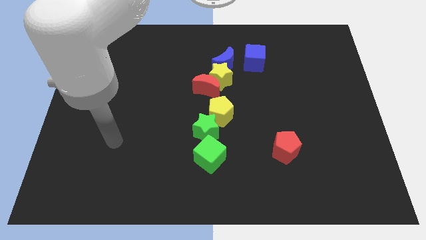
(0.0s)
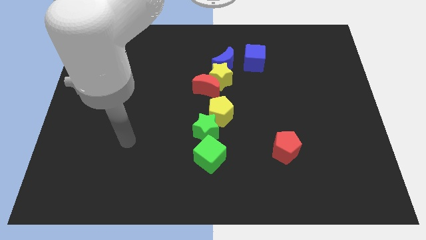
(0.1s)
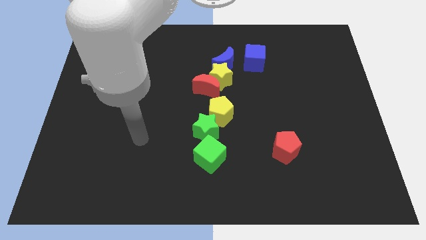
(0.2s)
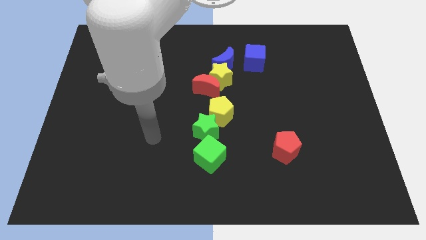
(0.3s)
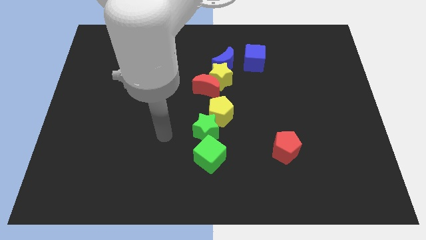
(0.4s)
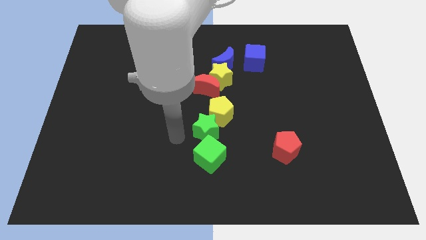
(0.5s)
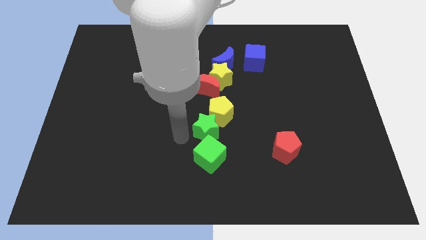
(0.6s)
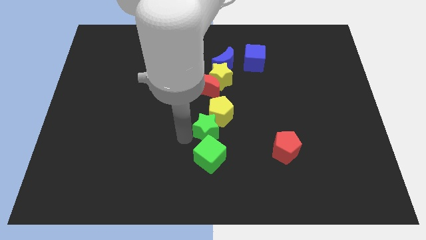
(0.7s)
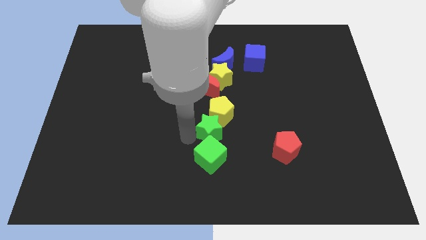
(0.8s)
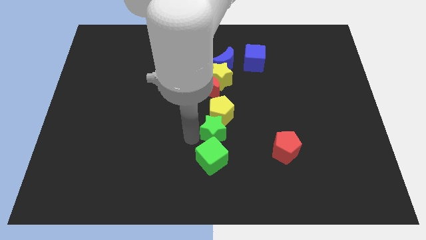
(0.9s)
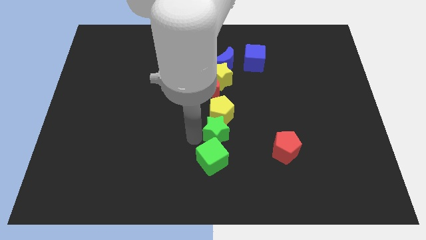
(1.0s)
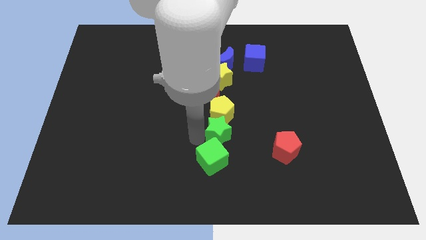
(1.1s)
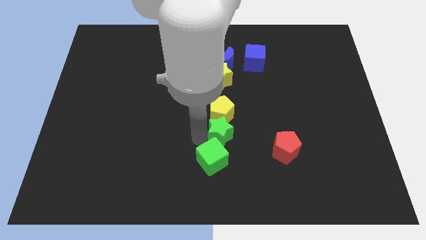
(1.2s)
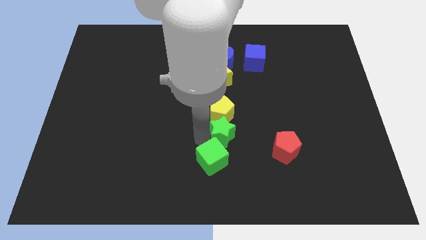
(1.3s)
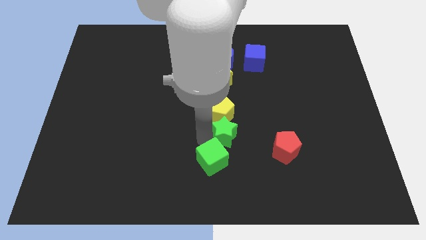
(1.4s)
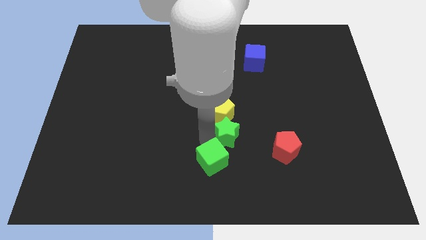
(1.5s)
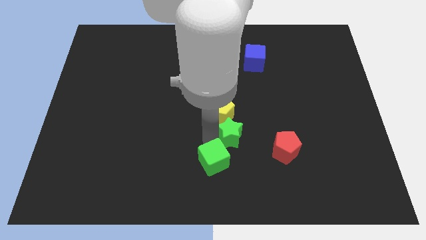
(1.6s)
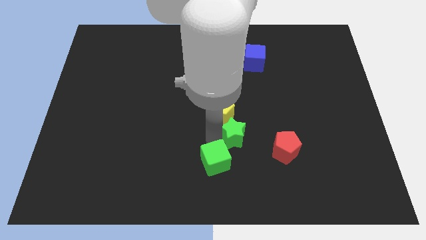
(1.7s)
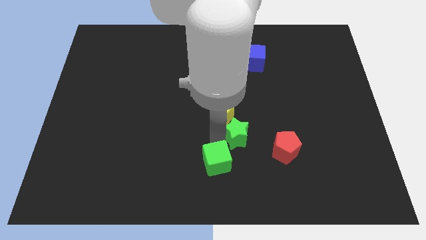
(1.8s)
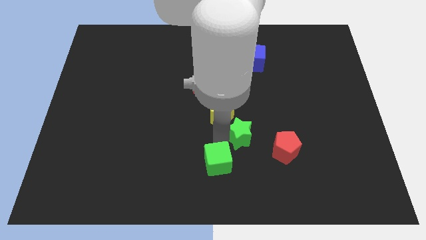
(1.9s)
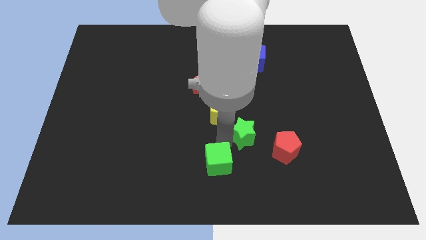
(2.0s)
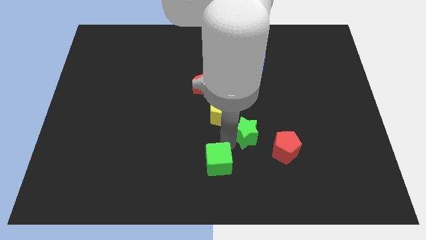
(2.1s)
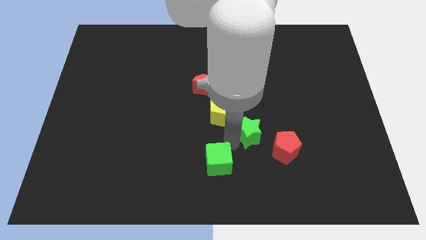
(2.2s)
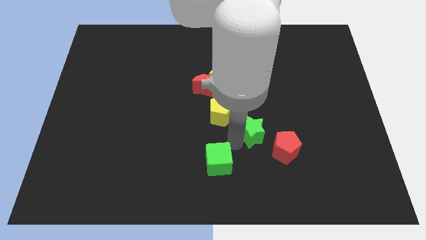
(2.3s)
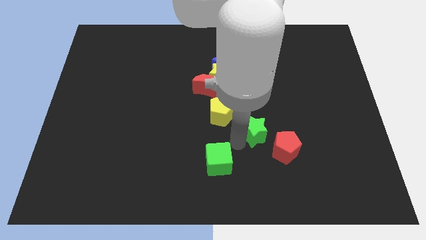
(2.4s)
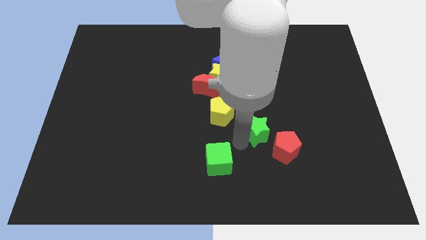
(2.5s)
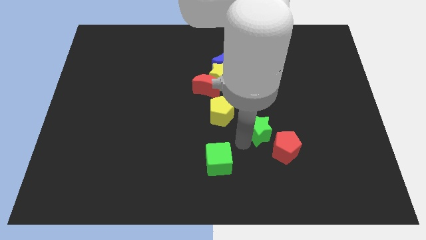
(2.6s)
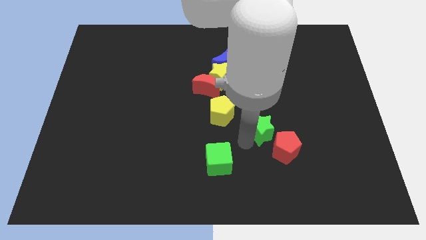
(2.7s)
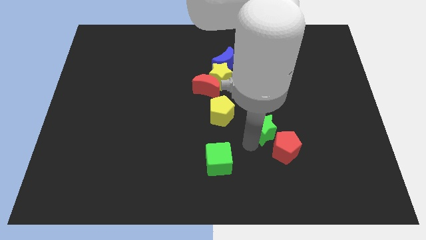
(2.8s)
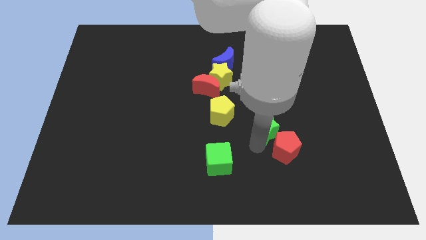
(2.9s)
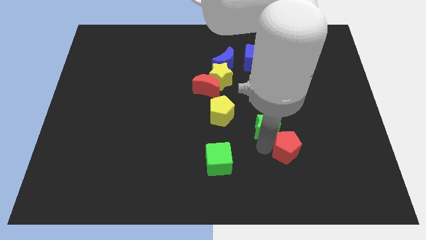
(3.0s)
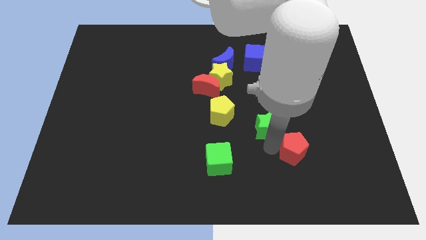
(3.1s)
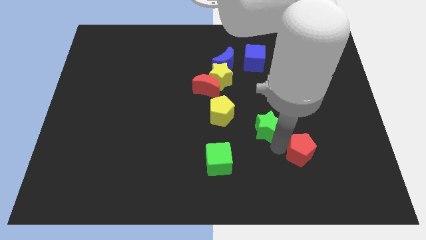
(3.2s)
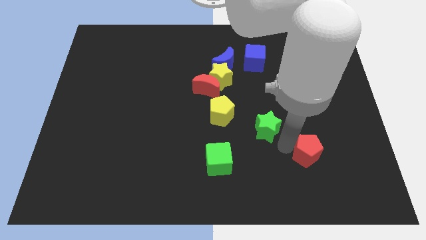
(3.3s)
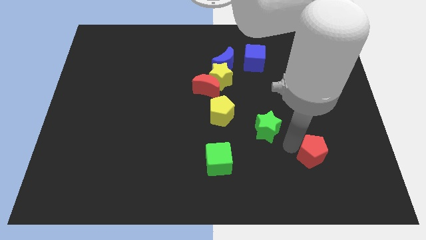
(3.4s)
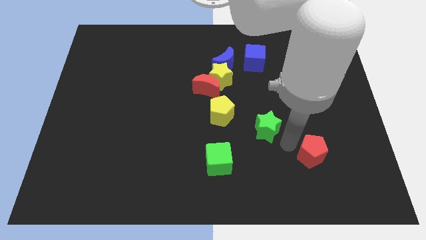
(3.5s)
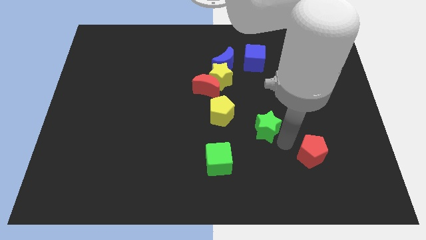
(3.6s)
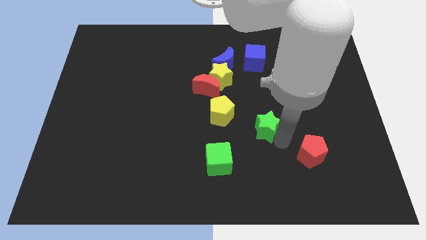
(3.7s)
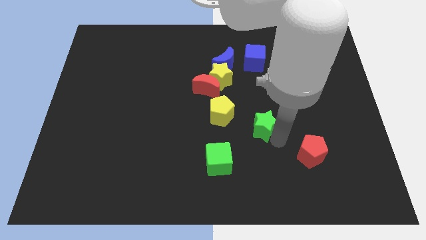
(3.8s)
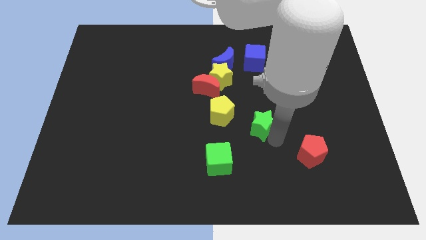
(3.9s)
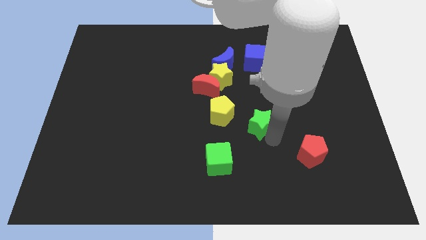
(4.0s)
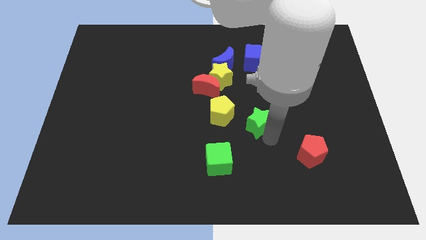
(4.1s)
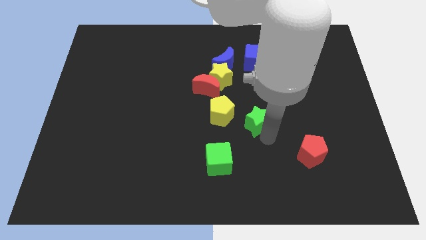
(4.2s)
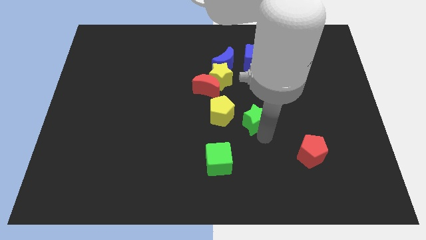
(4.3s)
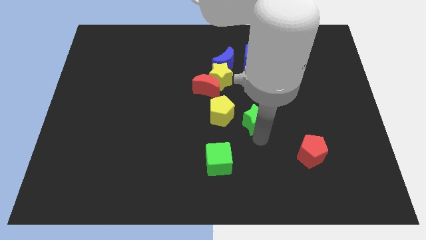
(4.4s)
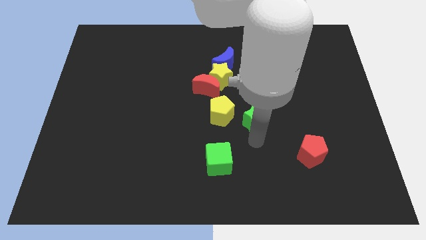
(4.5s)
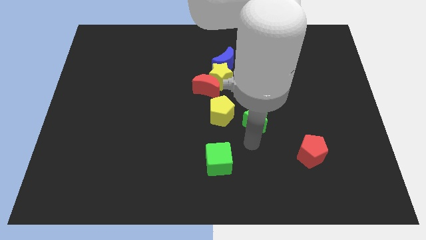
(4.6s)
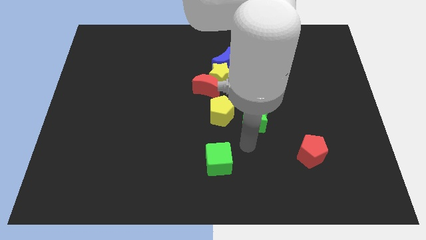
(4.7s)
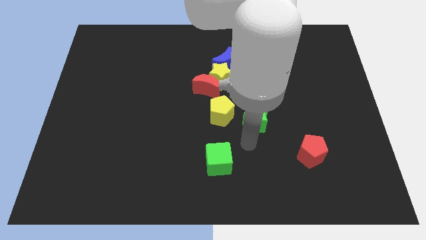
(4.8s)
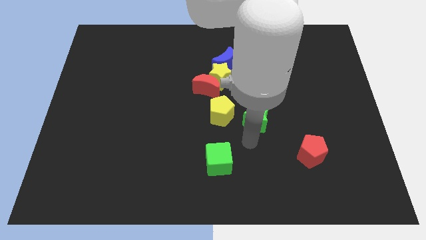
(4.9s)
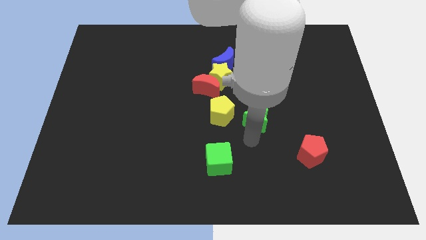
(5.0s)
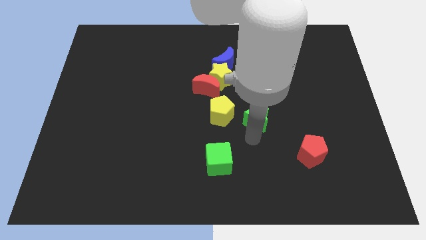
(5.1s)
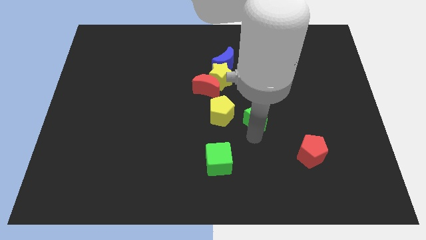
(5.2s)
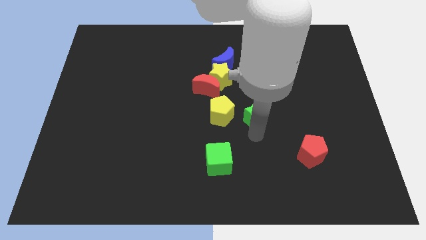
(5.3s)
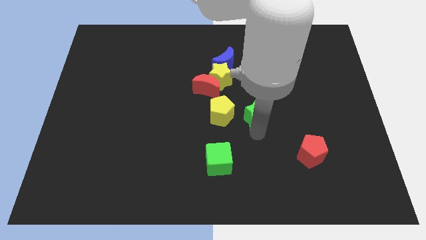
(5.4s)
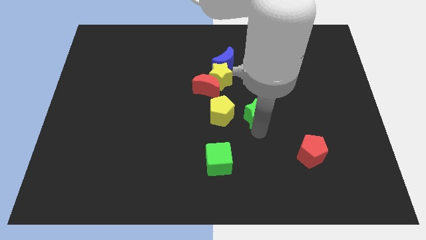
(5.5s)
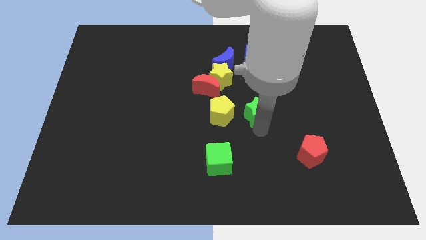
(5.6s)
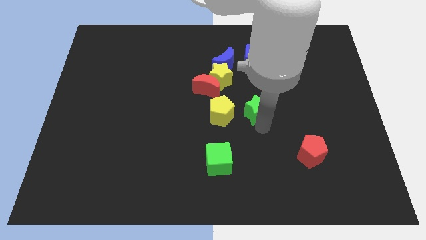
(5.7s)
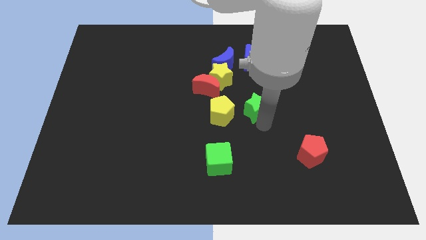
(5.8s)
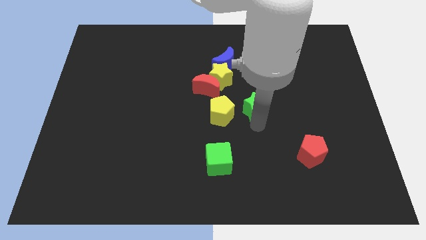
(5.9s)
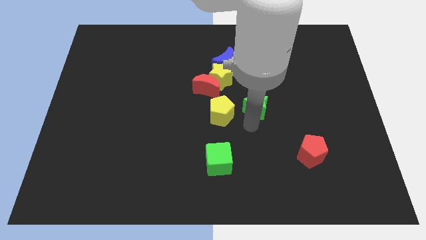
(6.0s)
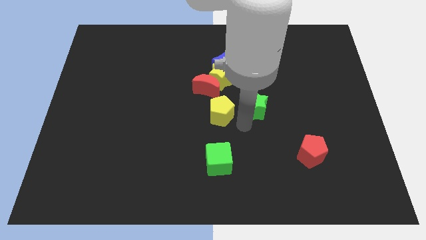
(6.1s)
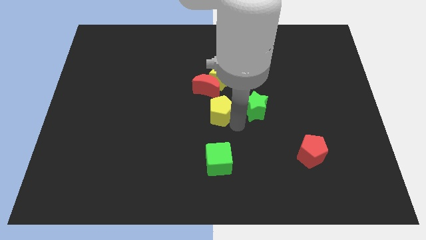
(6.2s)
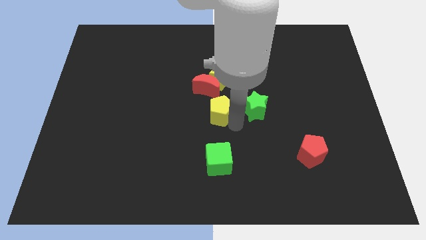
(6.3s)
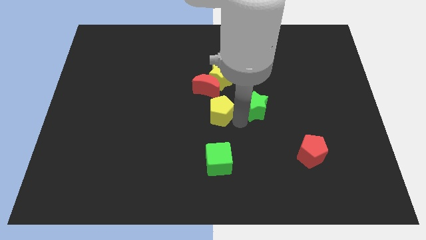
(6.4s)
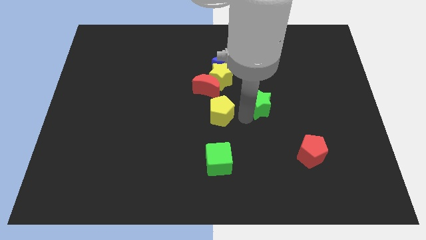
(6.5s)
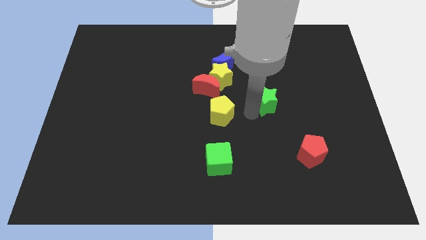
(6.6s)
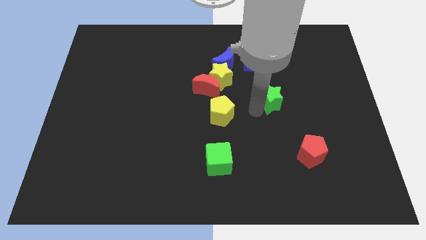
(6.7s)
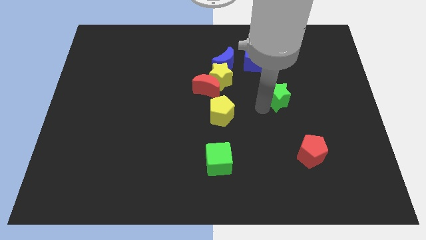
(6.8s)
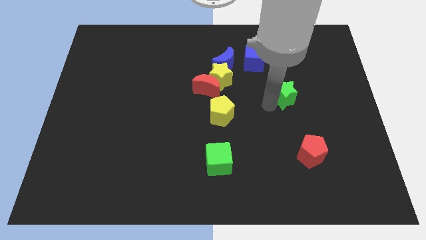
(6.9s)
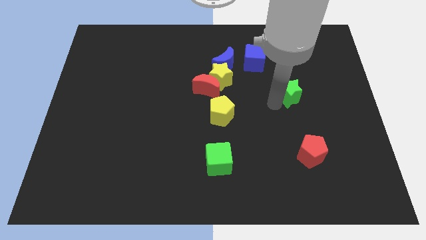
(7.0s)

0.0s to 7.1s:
push the green star upwards and to the right diagonally

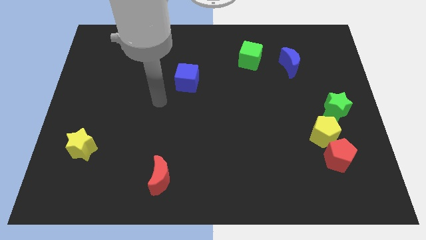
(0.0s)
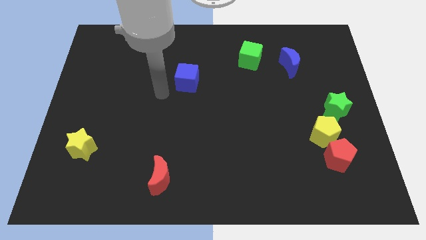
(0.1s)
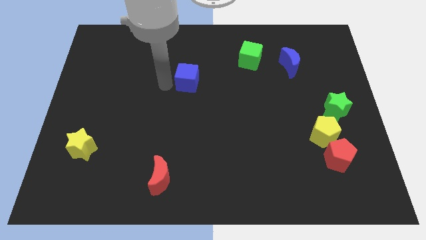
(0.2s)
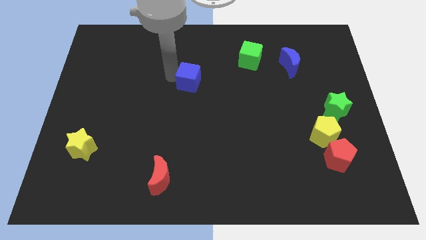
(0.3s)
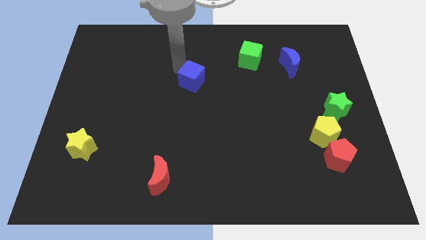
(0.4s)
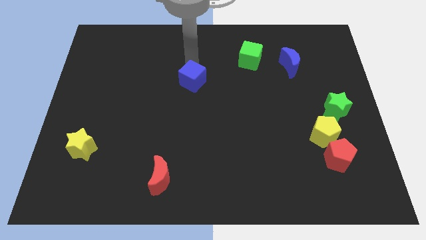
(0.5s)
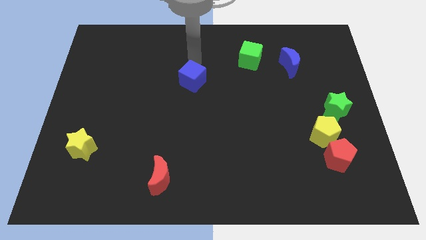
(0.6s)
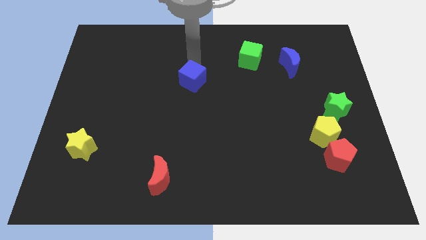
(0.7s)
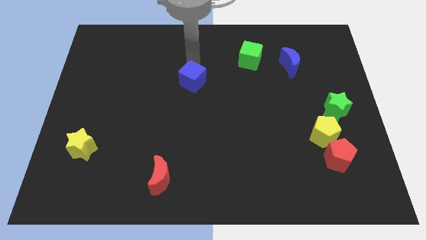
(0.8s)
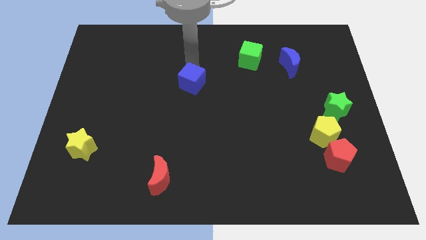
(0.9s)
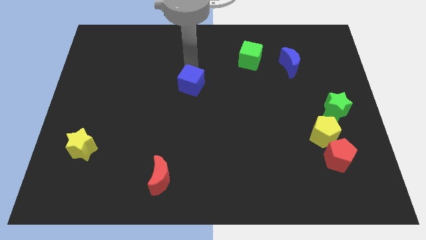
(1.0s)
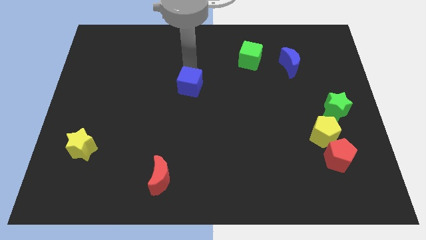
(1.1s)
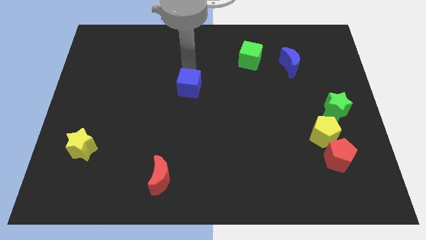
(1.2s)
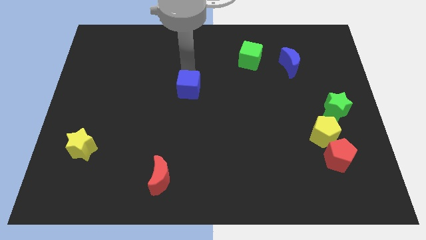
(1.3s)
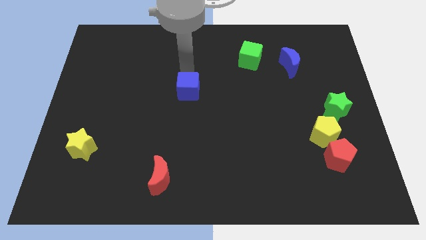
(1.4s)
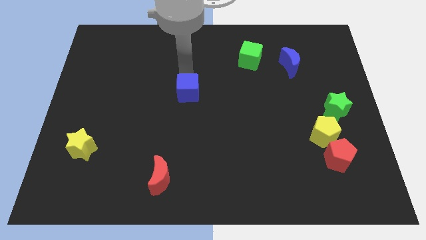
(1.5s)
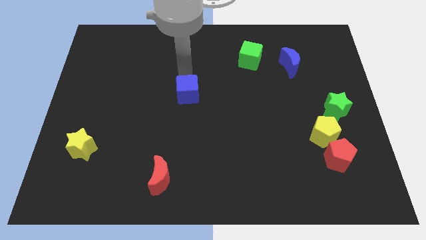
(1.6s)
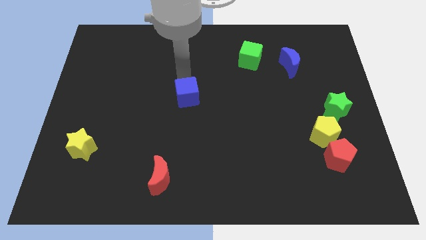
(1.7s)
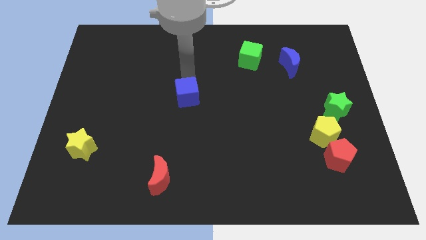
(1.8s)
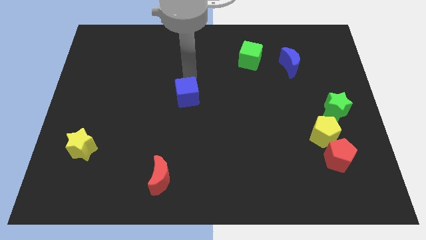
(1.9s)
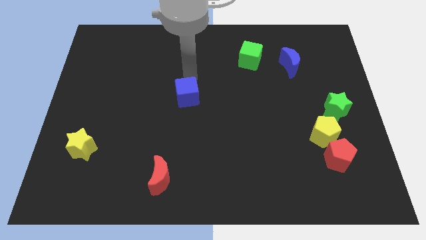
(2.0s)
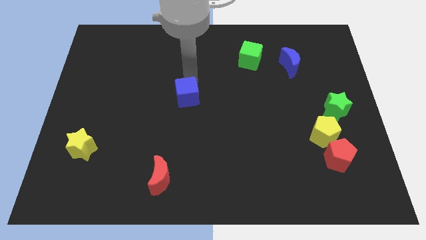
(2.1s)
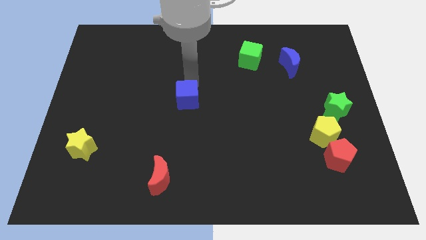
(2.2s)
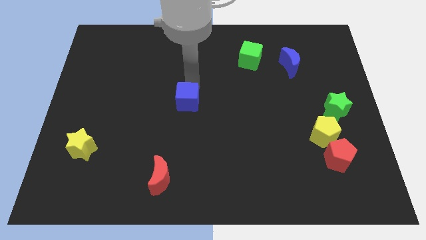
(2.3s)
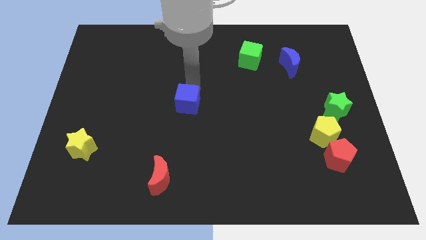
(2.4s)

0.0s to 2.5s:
slide the blue cube down a little
